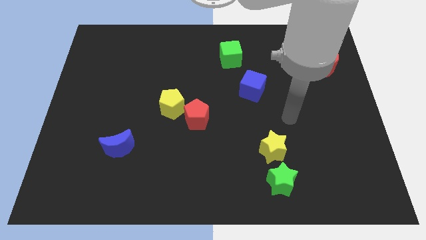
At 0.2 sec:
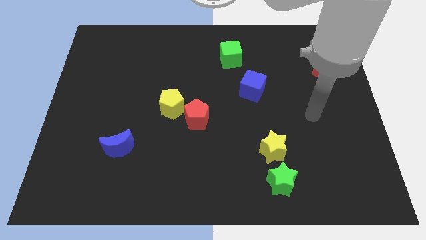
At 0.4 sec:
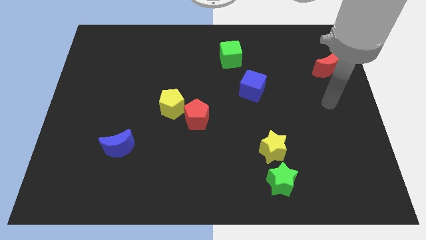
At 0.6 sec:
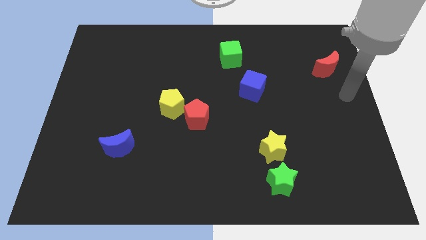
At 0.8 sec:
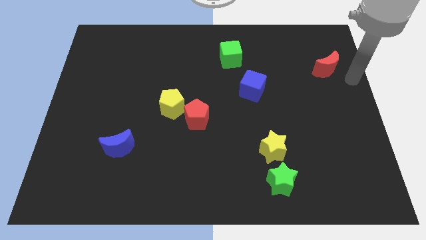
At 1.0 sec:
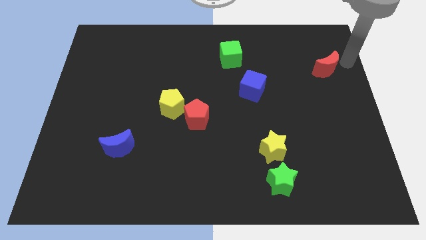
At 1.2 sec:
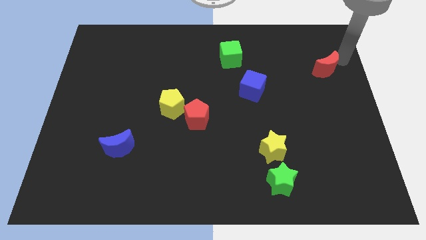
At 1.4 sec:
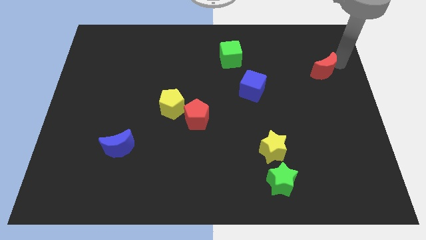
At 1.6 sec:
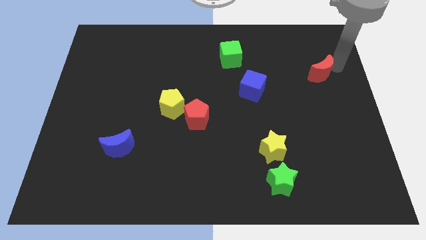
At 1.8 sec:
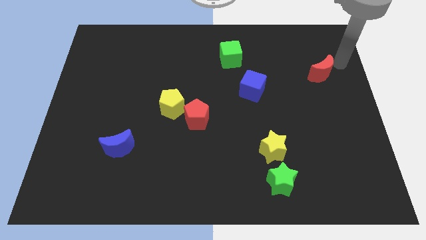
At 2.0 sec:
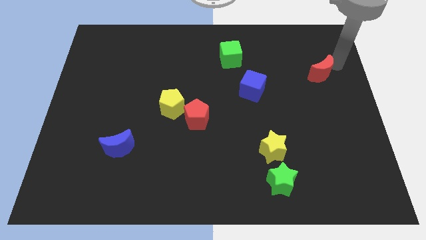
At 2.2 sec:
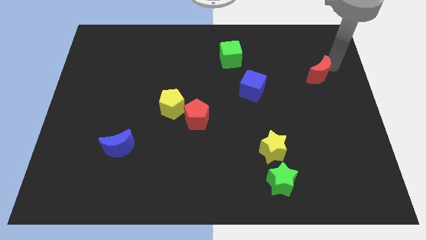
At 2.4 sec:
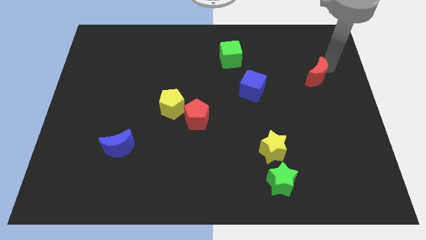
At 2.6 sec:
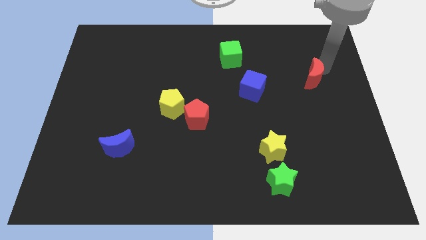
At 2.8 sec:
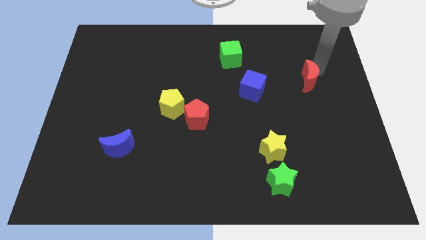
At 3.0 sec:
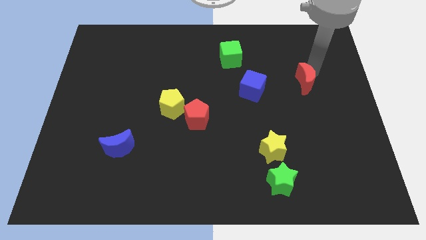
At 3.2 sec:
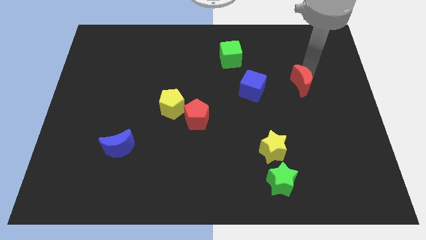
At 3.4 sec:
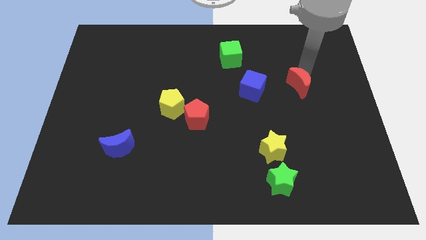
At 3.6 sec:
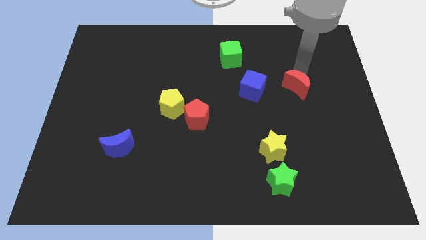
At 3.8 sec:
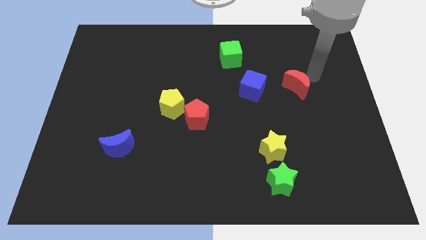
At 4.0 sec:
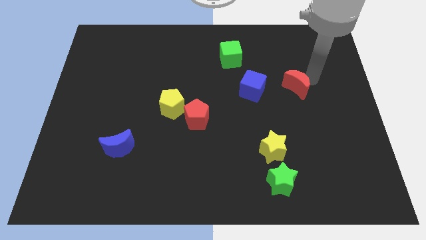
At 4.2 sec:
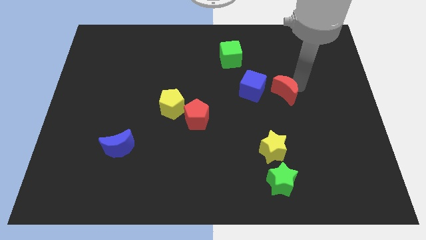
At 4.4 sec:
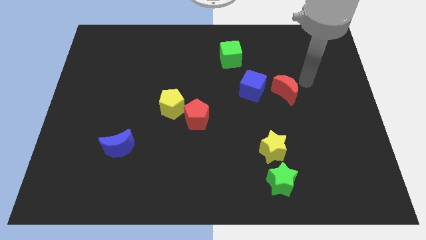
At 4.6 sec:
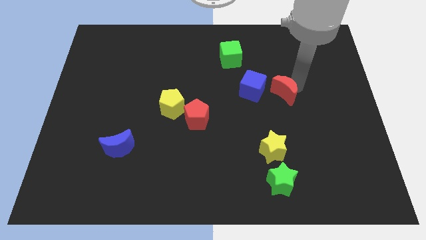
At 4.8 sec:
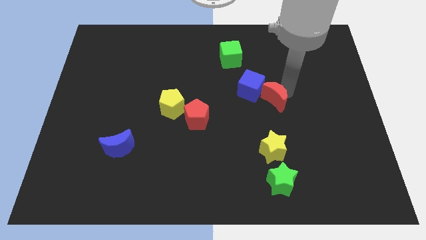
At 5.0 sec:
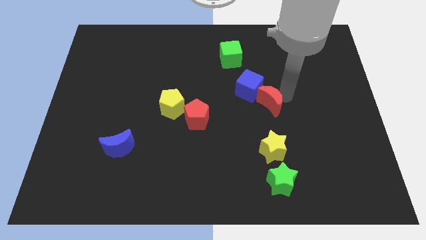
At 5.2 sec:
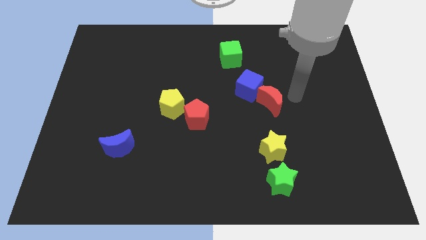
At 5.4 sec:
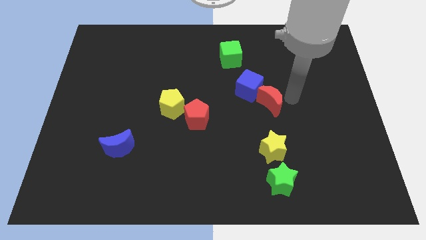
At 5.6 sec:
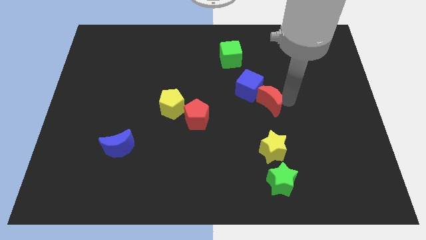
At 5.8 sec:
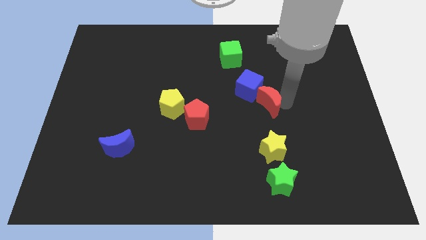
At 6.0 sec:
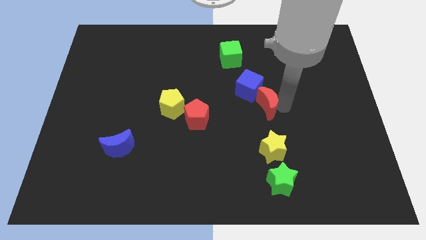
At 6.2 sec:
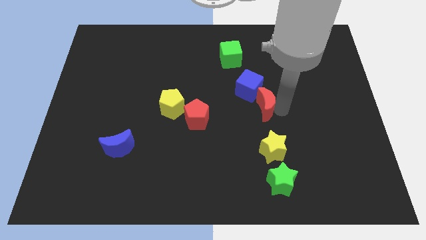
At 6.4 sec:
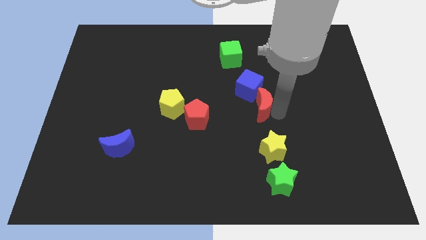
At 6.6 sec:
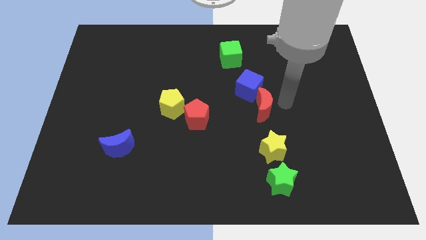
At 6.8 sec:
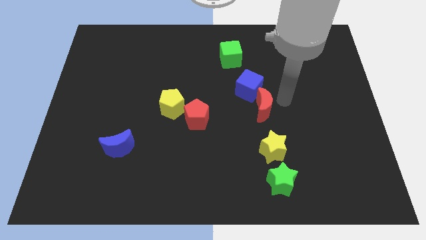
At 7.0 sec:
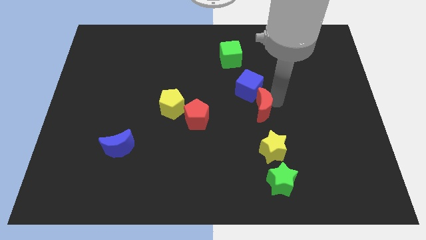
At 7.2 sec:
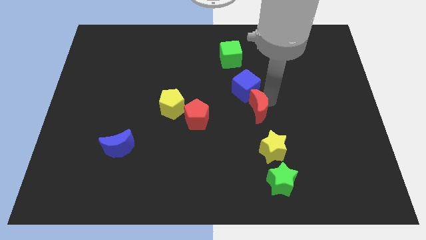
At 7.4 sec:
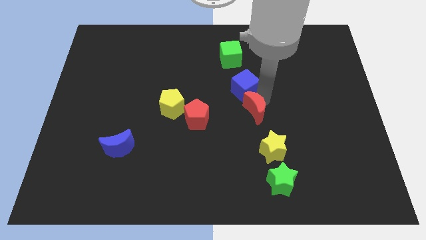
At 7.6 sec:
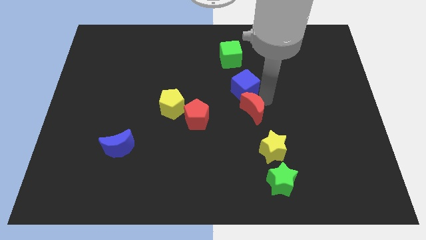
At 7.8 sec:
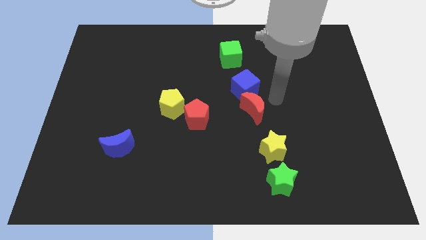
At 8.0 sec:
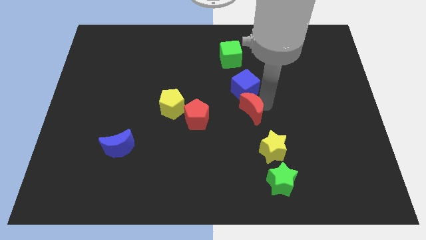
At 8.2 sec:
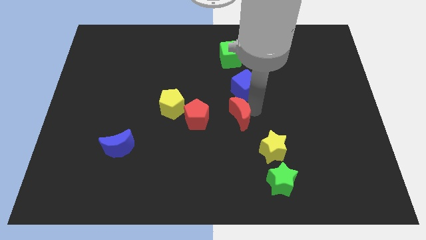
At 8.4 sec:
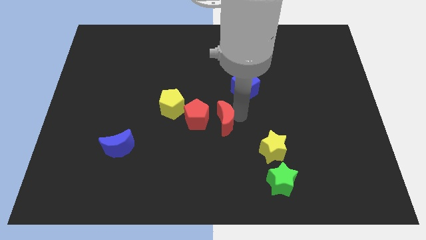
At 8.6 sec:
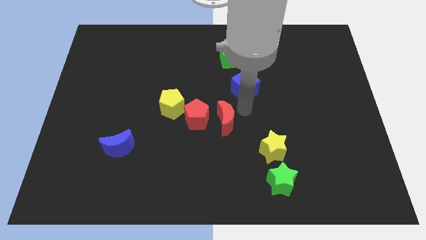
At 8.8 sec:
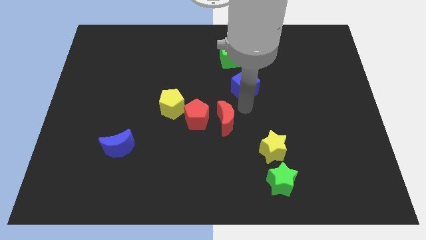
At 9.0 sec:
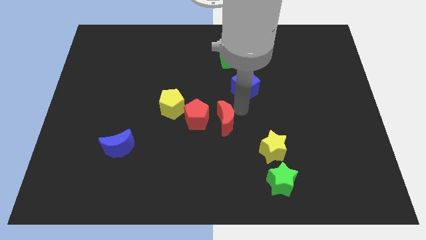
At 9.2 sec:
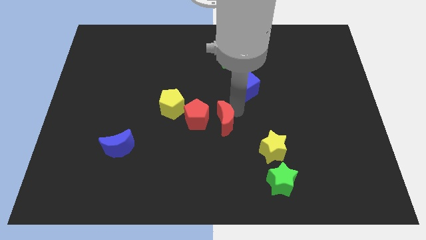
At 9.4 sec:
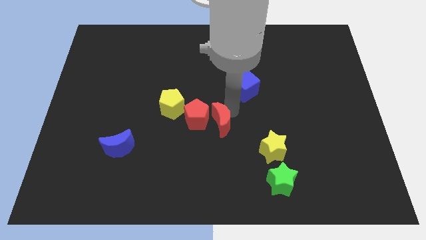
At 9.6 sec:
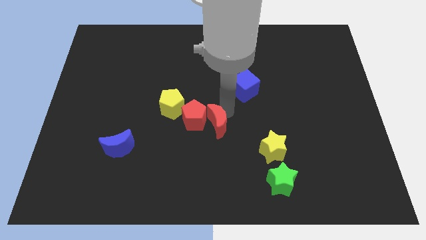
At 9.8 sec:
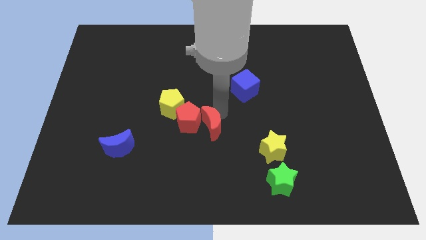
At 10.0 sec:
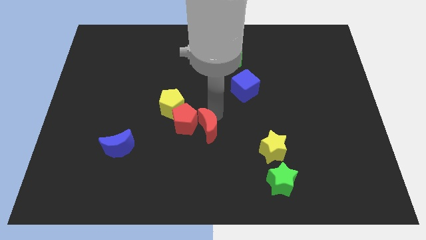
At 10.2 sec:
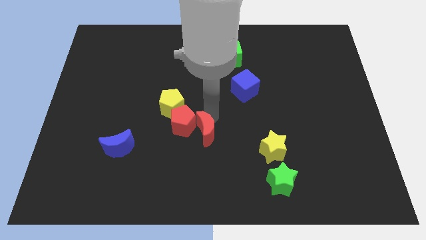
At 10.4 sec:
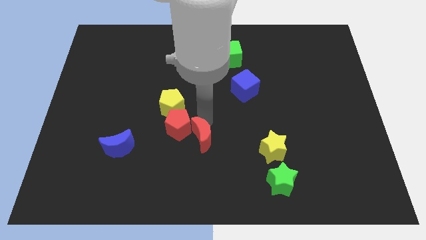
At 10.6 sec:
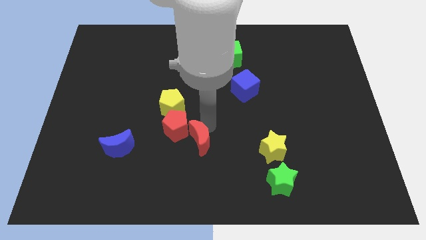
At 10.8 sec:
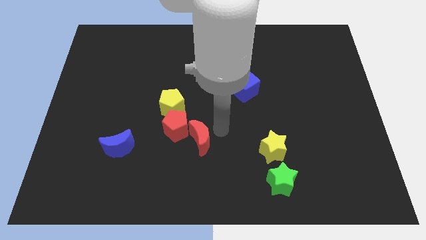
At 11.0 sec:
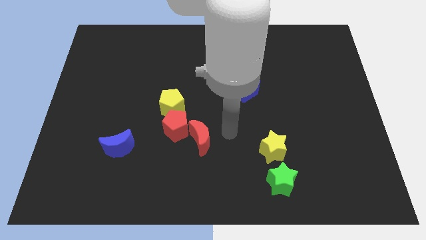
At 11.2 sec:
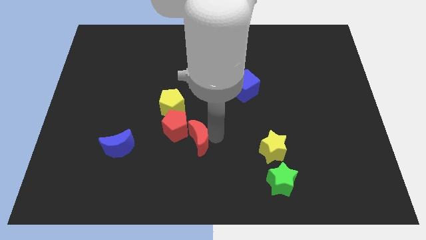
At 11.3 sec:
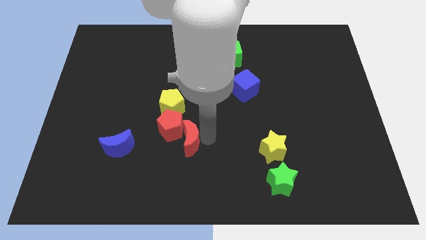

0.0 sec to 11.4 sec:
move the red moon just right of the blue moon

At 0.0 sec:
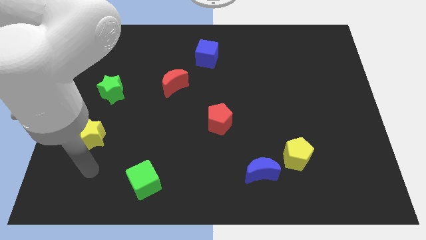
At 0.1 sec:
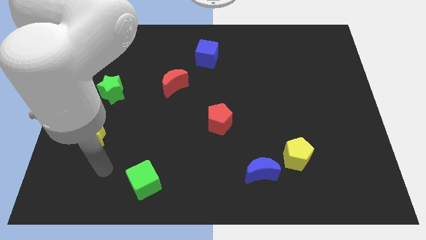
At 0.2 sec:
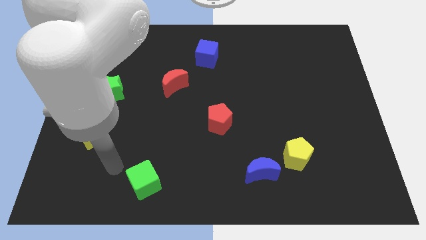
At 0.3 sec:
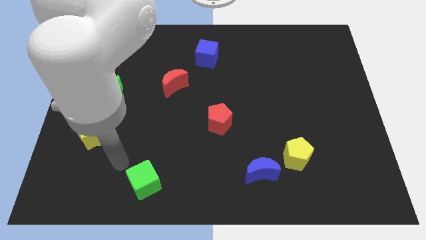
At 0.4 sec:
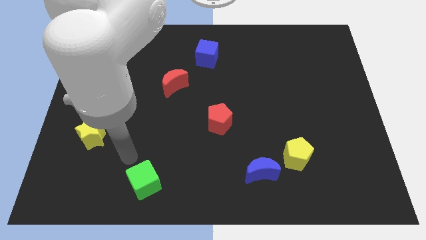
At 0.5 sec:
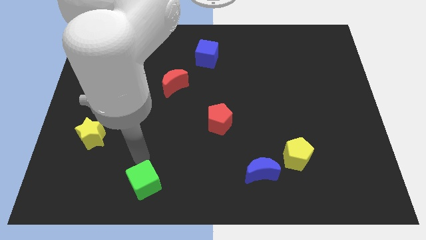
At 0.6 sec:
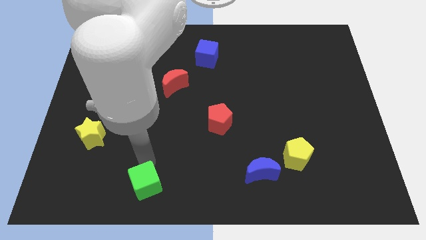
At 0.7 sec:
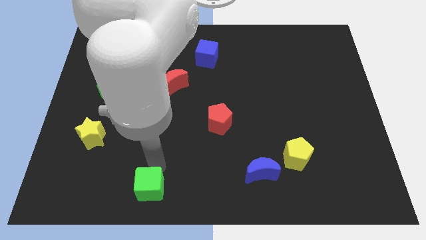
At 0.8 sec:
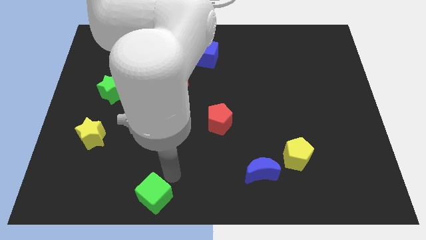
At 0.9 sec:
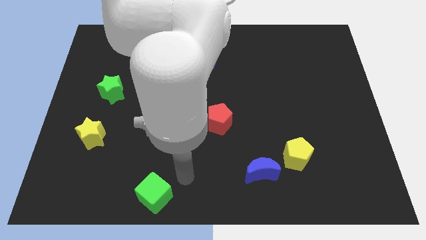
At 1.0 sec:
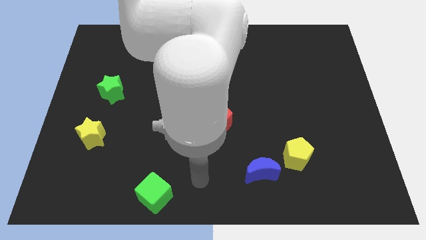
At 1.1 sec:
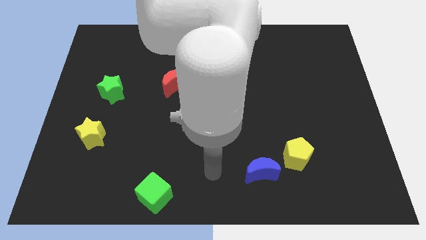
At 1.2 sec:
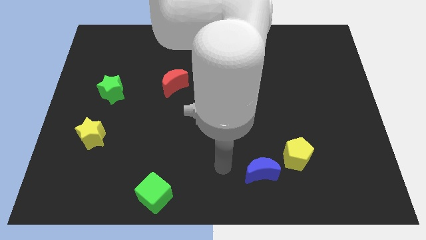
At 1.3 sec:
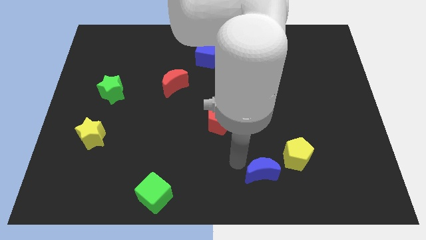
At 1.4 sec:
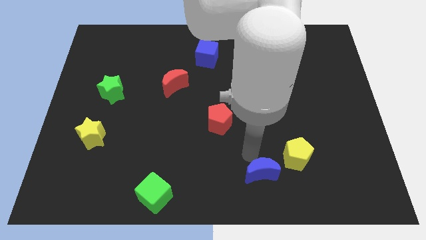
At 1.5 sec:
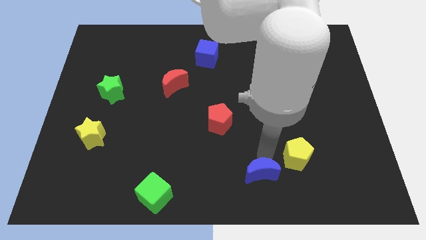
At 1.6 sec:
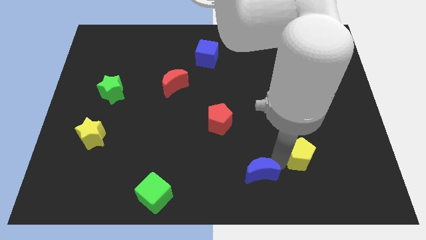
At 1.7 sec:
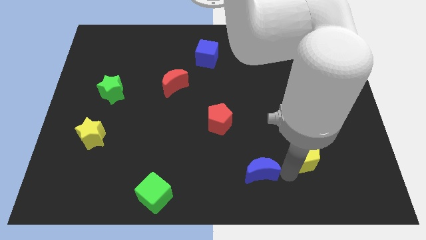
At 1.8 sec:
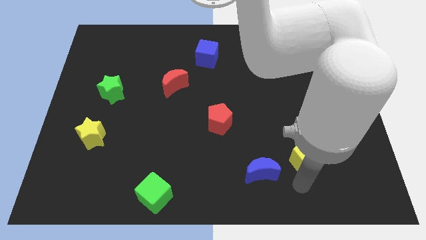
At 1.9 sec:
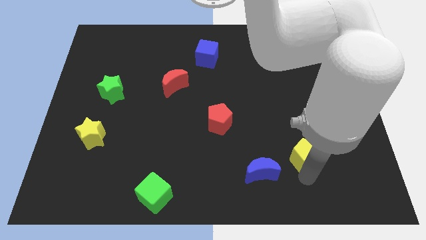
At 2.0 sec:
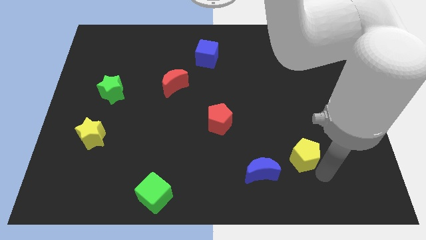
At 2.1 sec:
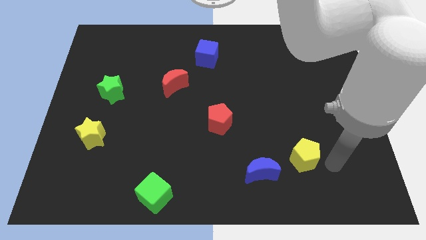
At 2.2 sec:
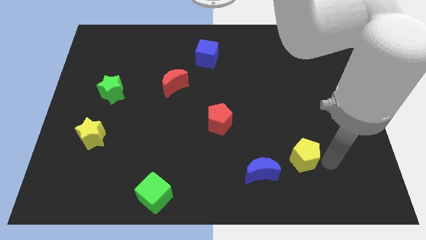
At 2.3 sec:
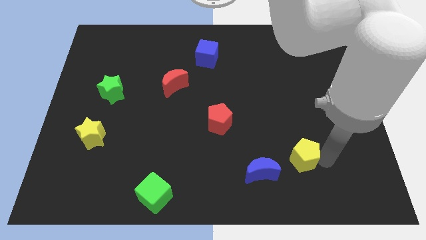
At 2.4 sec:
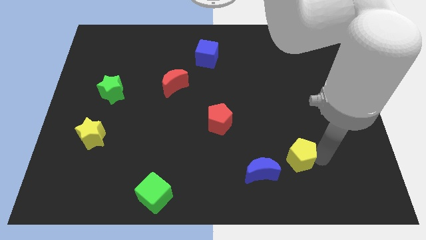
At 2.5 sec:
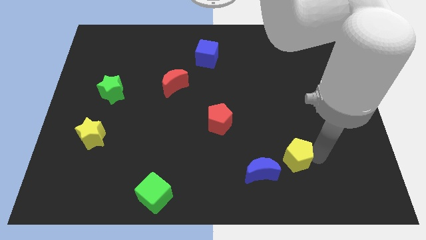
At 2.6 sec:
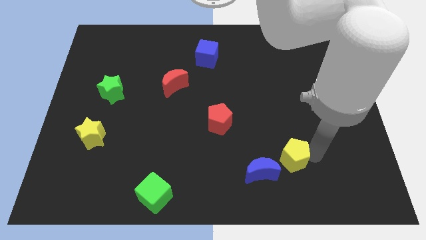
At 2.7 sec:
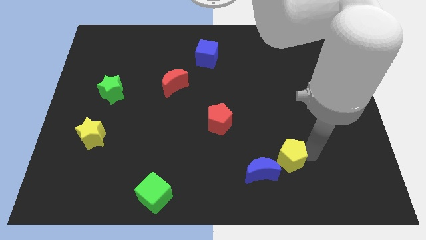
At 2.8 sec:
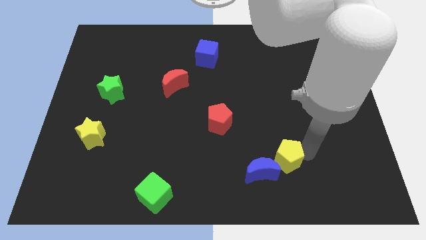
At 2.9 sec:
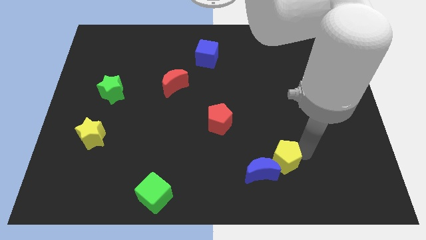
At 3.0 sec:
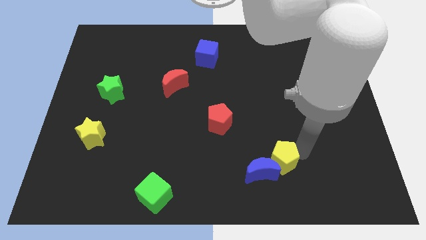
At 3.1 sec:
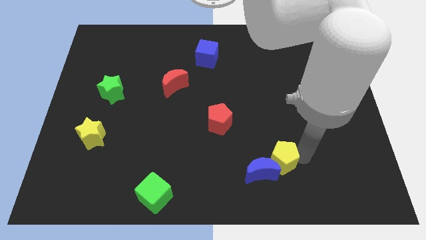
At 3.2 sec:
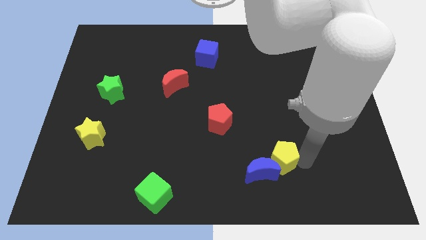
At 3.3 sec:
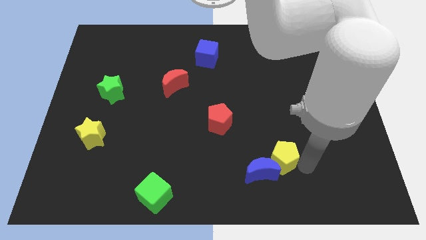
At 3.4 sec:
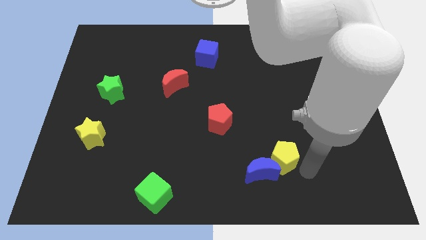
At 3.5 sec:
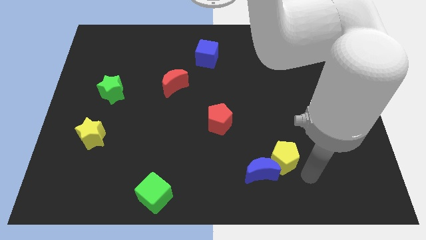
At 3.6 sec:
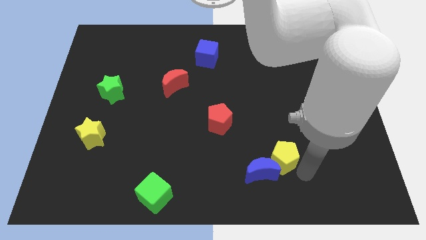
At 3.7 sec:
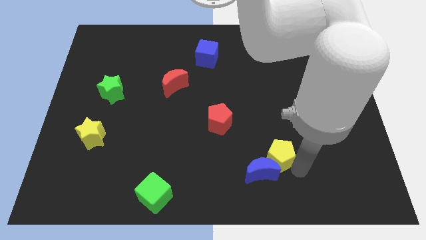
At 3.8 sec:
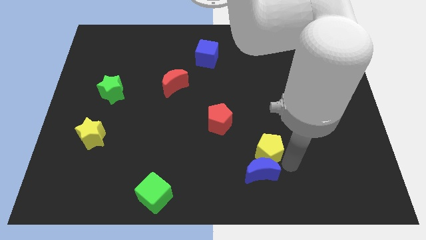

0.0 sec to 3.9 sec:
slide the yellow pentagon to the bottom right of the red pentagon
